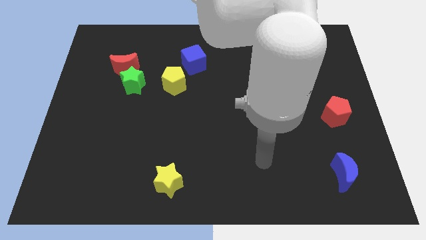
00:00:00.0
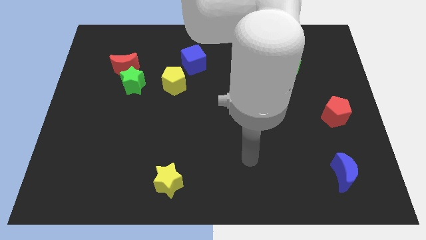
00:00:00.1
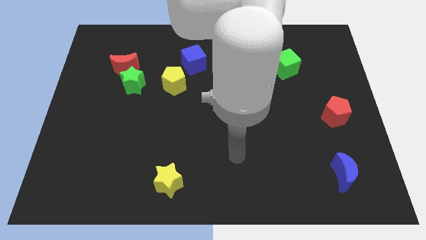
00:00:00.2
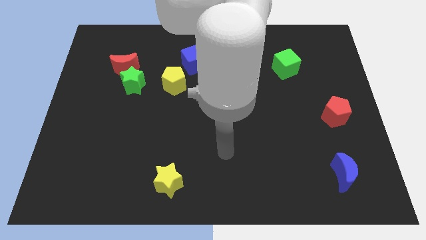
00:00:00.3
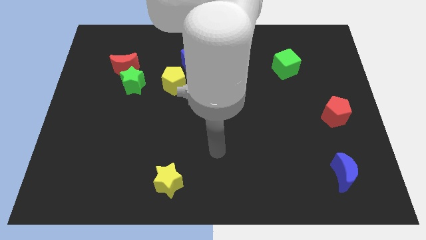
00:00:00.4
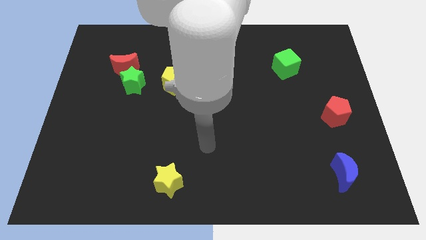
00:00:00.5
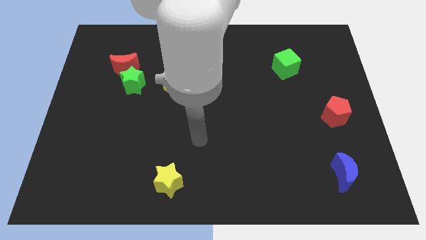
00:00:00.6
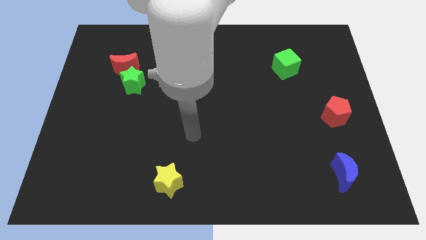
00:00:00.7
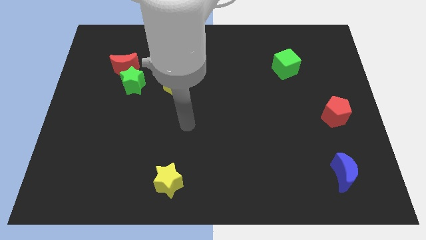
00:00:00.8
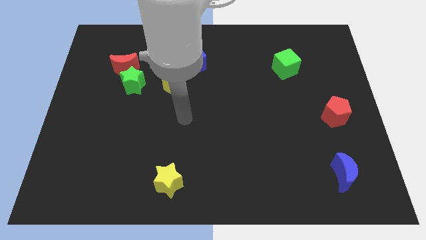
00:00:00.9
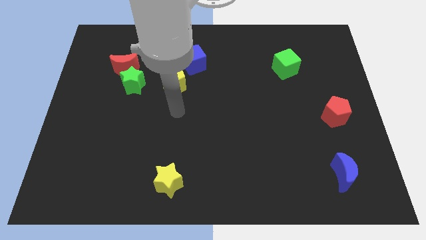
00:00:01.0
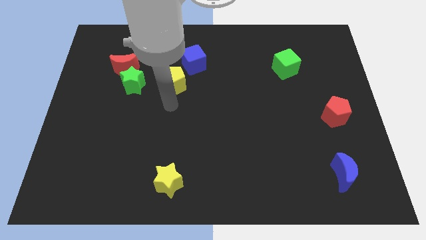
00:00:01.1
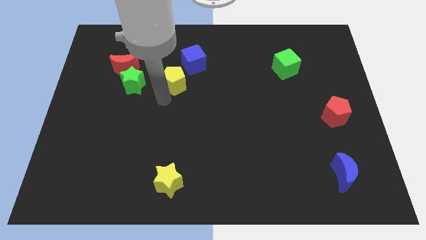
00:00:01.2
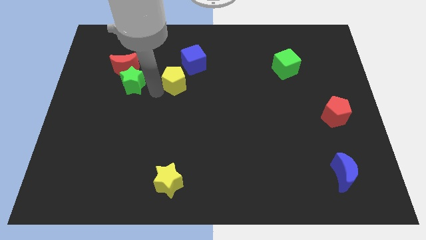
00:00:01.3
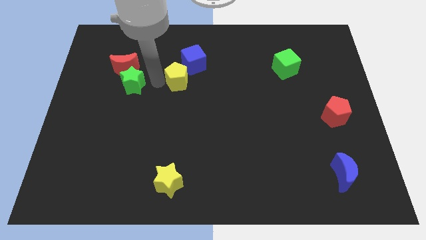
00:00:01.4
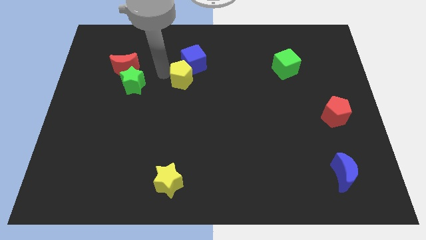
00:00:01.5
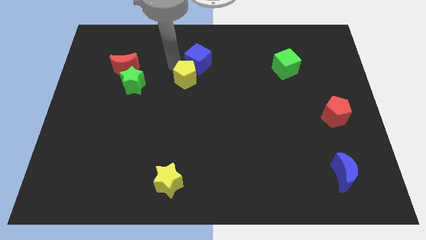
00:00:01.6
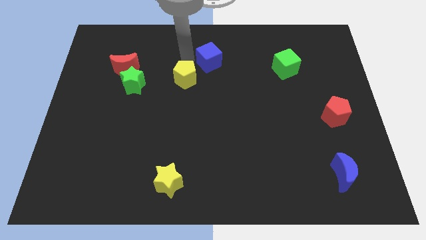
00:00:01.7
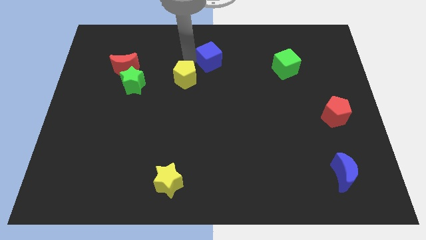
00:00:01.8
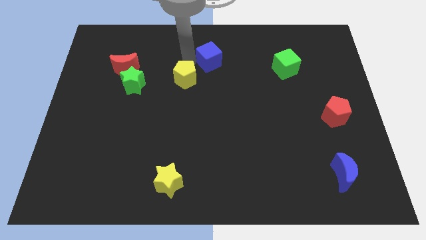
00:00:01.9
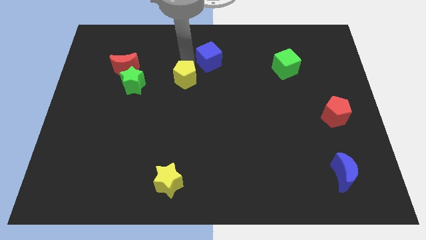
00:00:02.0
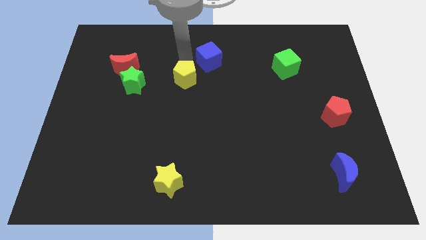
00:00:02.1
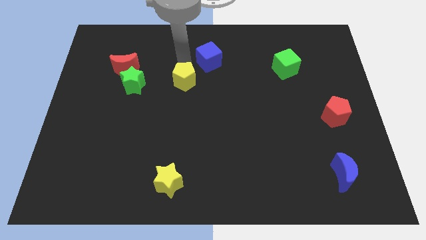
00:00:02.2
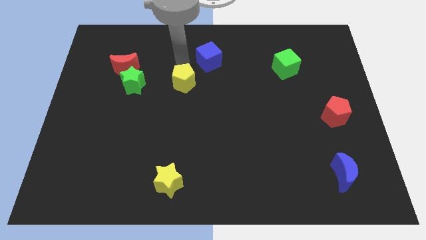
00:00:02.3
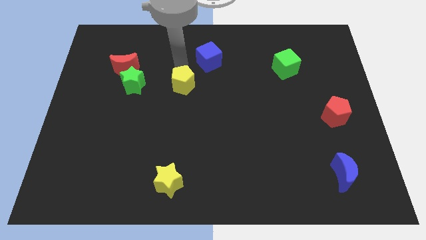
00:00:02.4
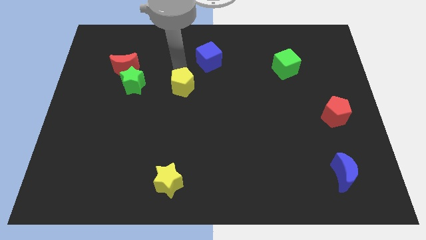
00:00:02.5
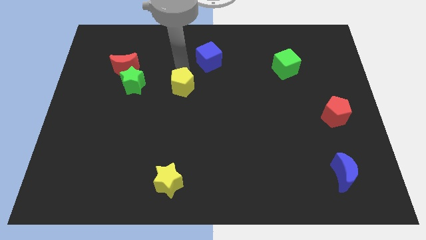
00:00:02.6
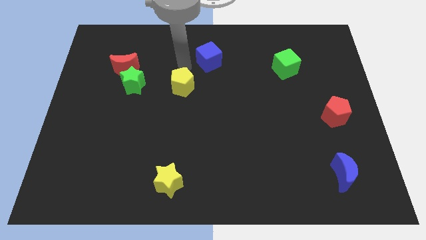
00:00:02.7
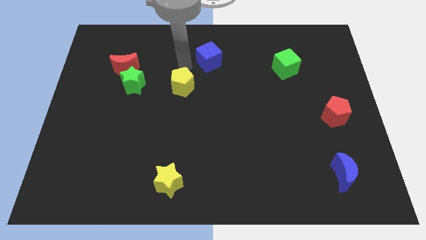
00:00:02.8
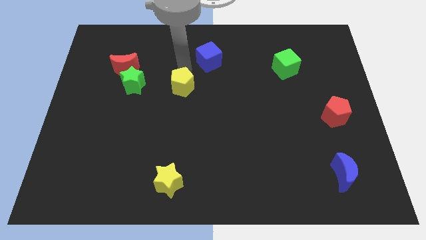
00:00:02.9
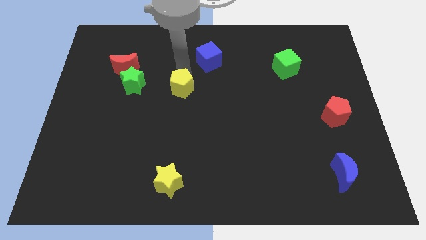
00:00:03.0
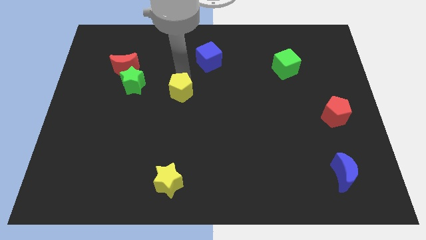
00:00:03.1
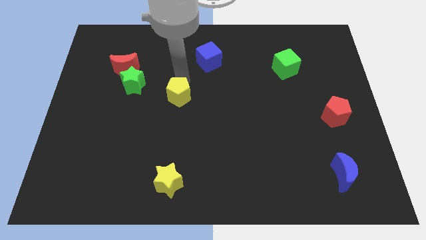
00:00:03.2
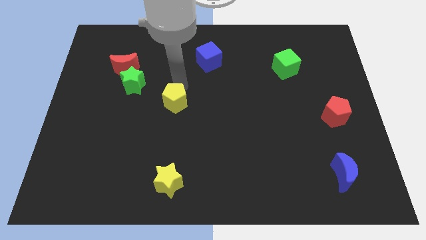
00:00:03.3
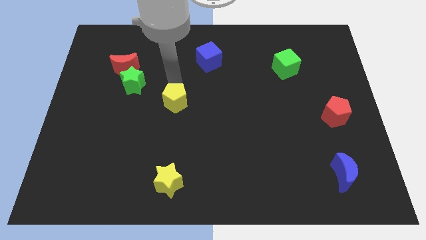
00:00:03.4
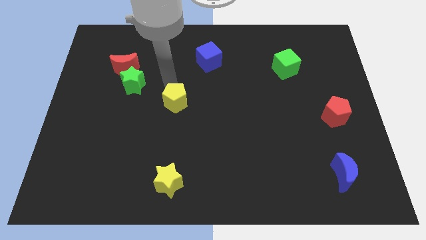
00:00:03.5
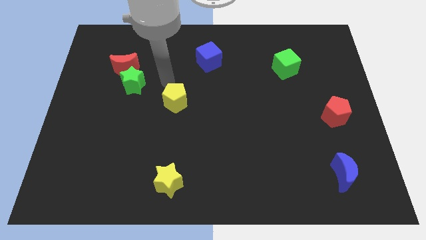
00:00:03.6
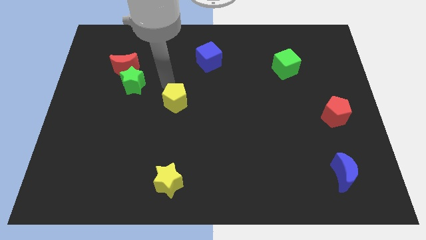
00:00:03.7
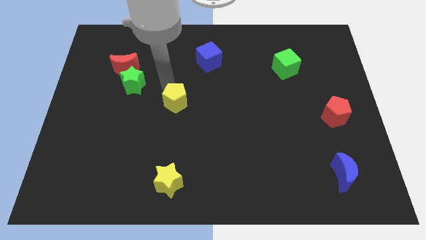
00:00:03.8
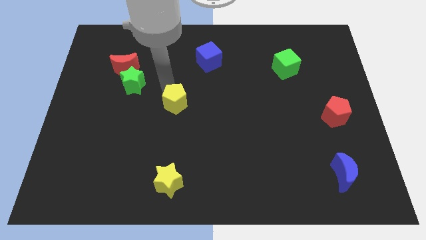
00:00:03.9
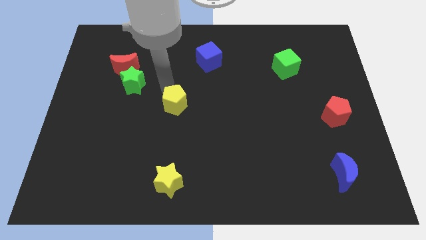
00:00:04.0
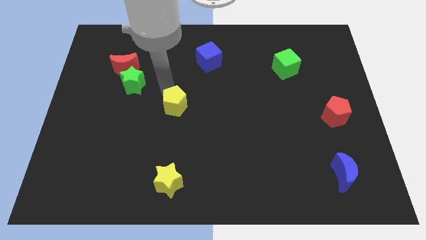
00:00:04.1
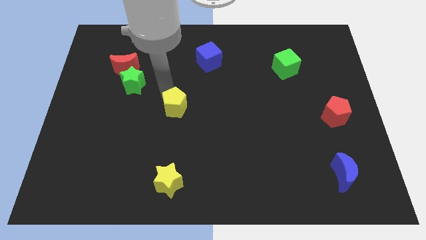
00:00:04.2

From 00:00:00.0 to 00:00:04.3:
slightly slide the yellow pentagon downwards

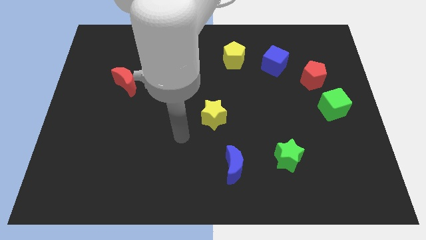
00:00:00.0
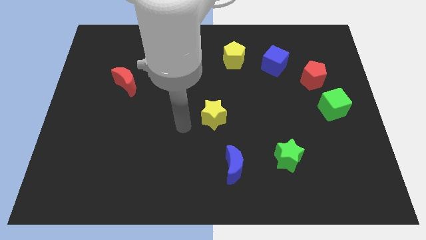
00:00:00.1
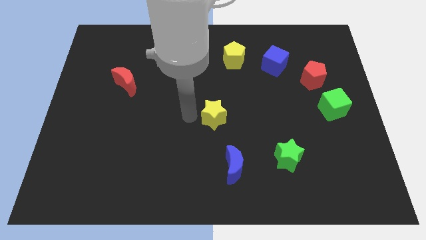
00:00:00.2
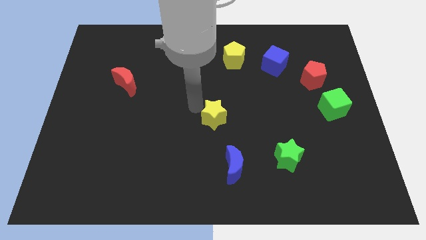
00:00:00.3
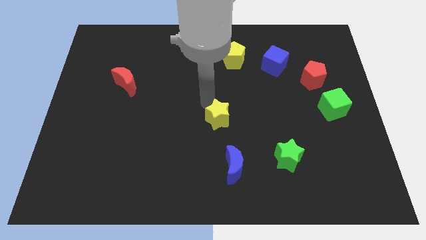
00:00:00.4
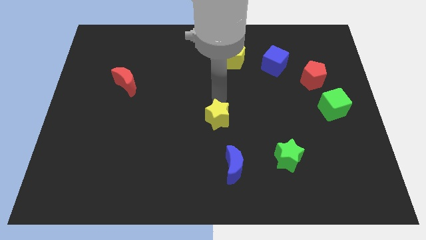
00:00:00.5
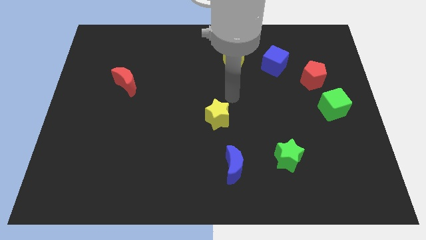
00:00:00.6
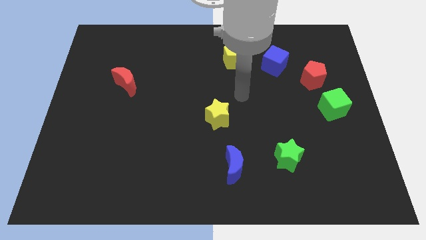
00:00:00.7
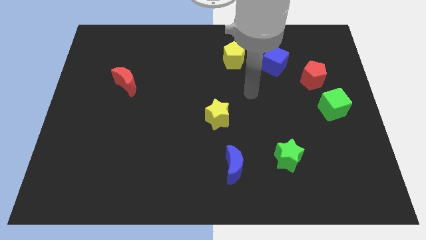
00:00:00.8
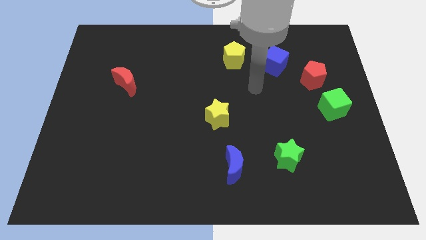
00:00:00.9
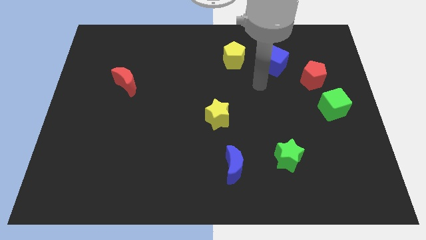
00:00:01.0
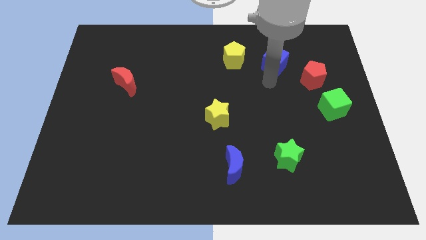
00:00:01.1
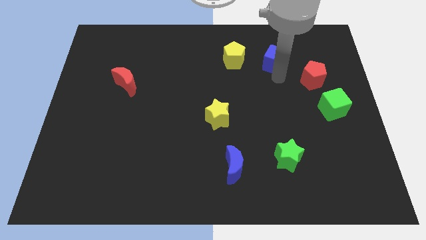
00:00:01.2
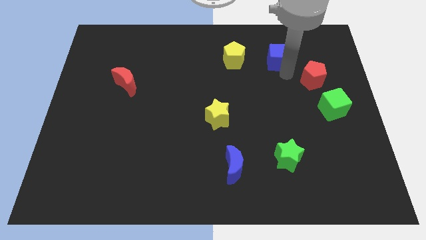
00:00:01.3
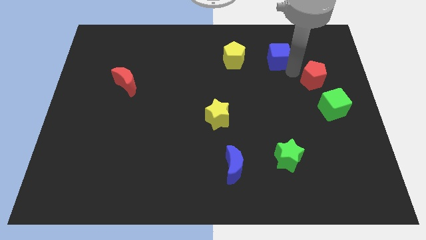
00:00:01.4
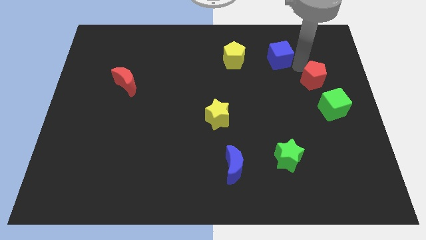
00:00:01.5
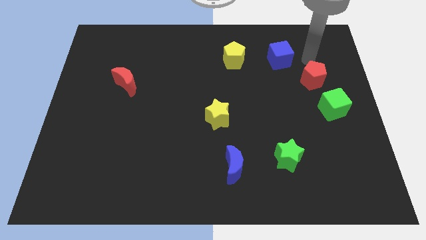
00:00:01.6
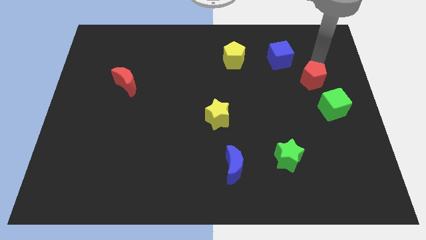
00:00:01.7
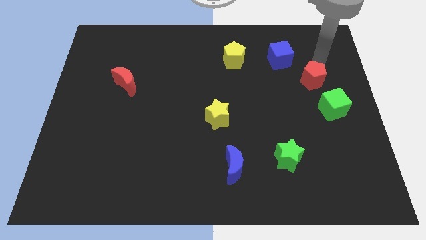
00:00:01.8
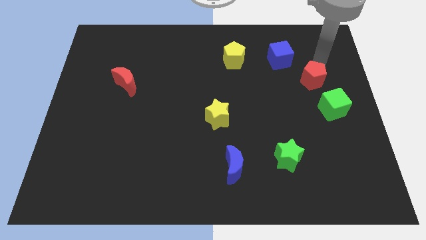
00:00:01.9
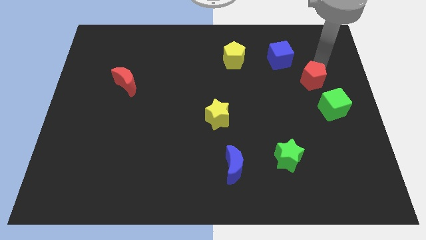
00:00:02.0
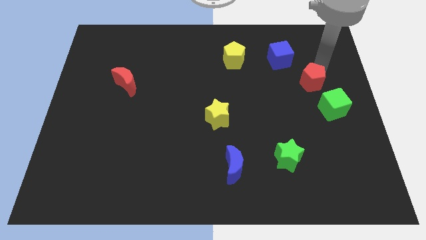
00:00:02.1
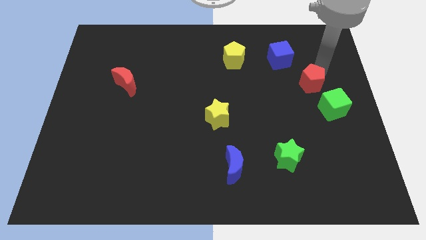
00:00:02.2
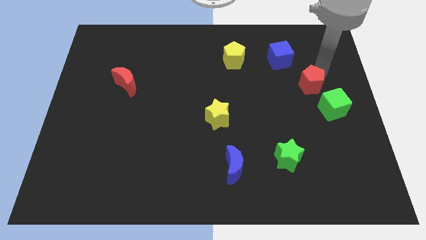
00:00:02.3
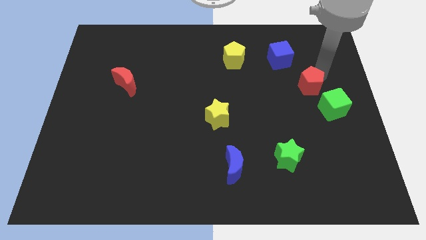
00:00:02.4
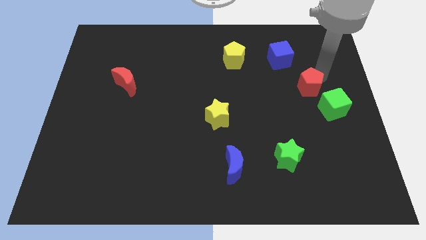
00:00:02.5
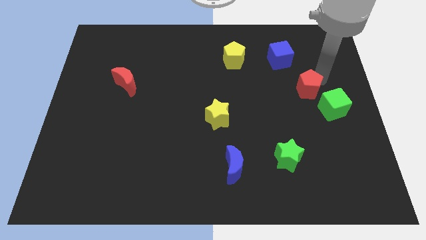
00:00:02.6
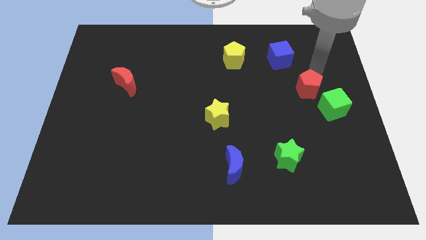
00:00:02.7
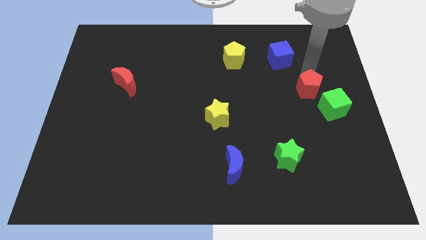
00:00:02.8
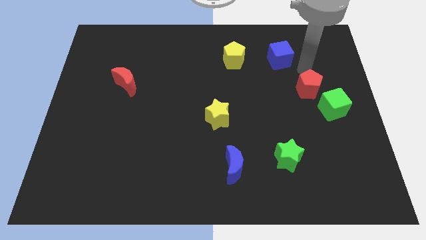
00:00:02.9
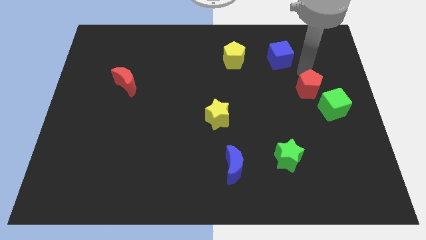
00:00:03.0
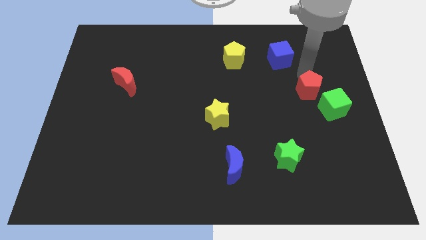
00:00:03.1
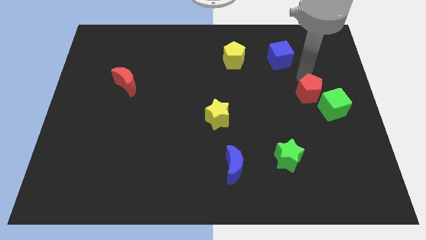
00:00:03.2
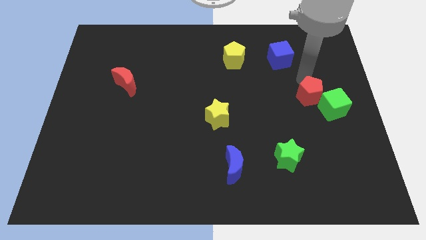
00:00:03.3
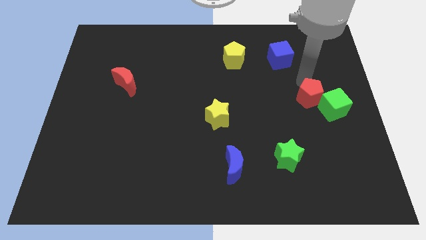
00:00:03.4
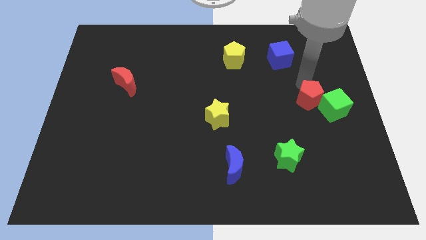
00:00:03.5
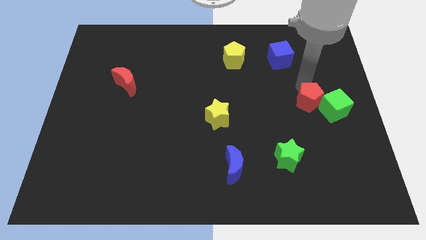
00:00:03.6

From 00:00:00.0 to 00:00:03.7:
slightly move the red pentagon down

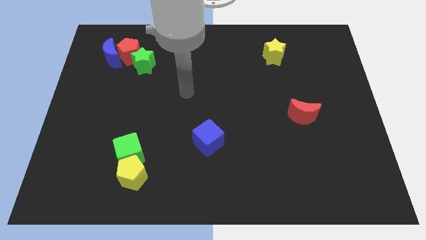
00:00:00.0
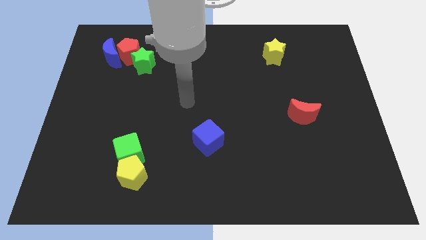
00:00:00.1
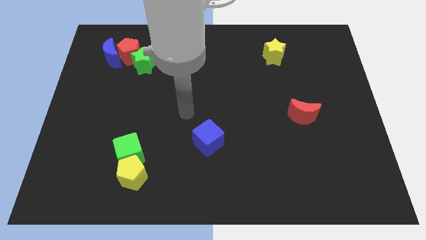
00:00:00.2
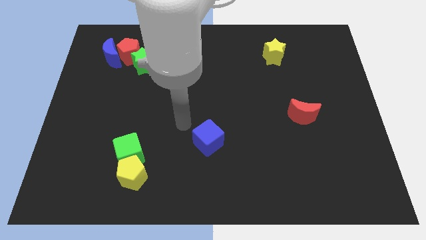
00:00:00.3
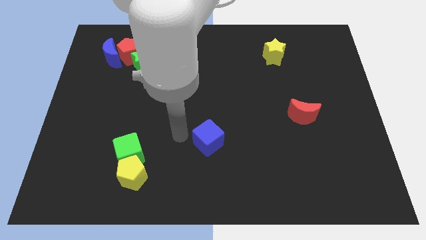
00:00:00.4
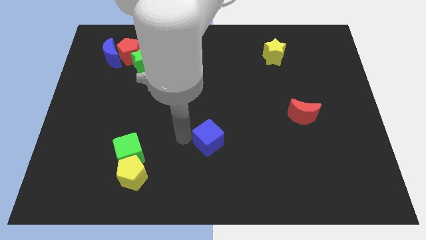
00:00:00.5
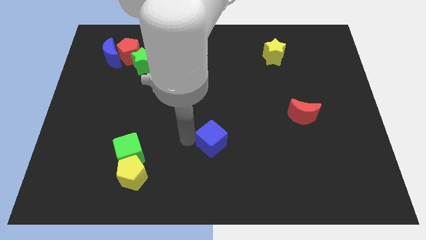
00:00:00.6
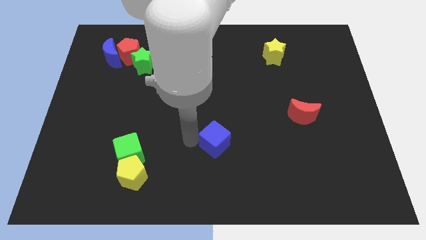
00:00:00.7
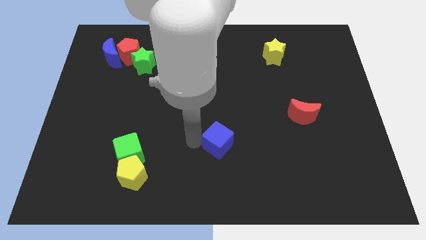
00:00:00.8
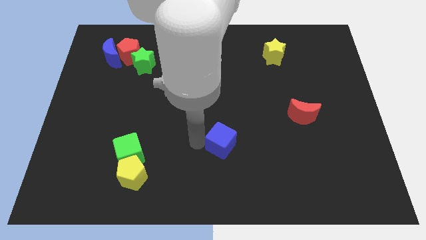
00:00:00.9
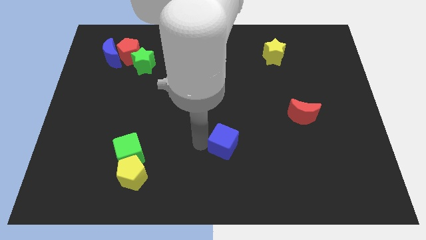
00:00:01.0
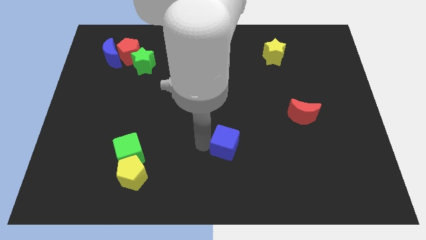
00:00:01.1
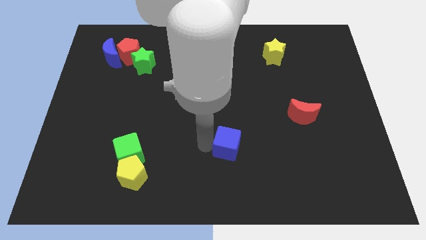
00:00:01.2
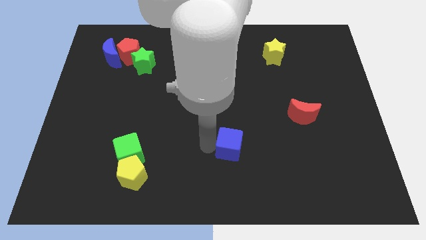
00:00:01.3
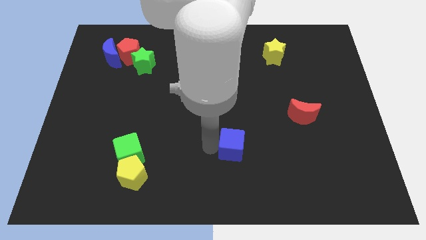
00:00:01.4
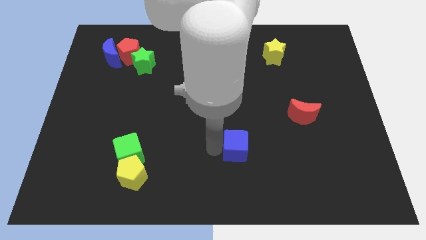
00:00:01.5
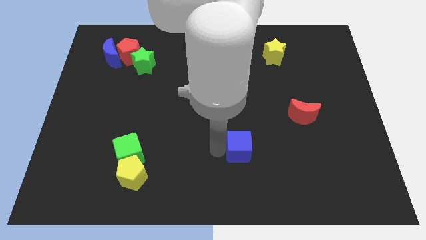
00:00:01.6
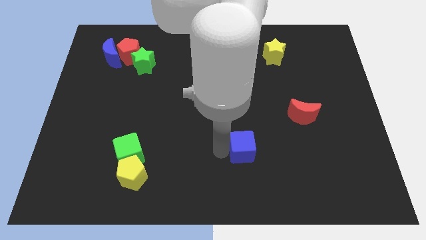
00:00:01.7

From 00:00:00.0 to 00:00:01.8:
move the blue cube to the right slightly
